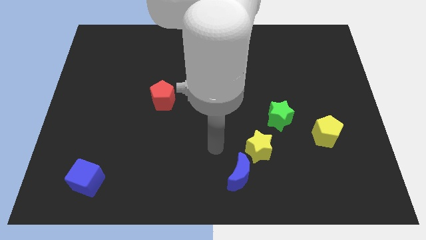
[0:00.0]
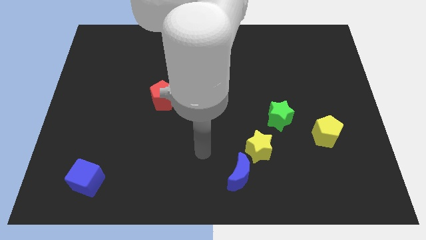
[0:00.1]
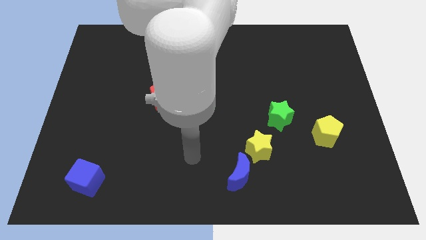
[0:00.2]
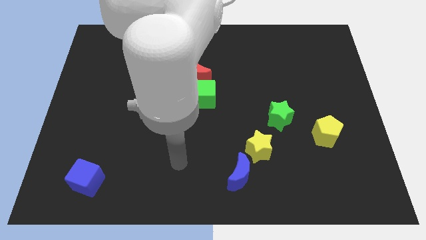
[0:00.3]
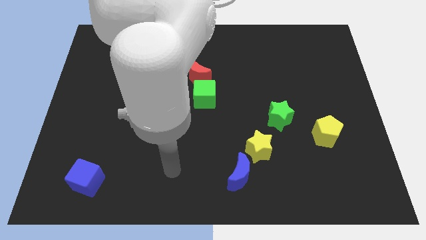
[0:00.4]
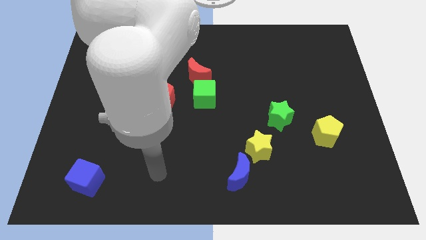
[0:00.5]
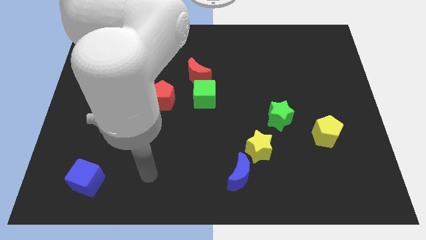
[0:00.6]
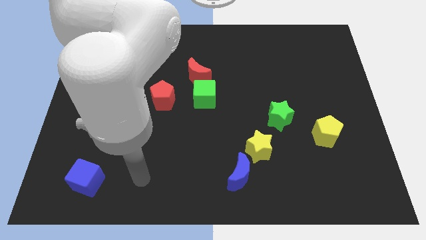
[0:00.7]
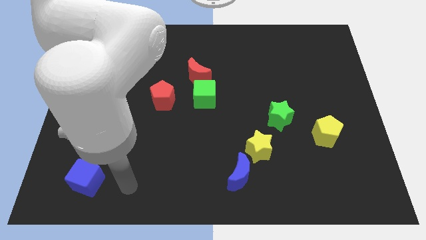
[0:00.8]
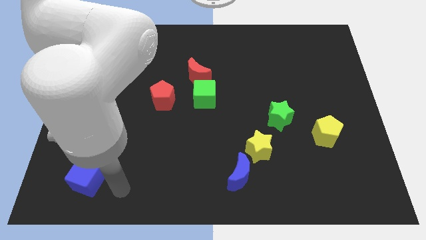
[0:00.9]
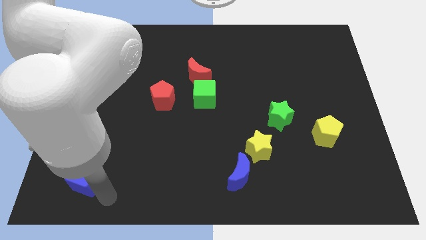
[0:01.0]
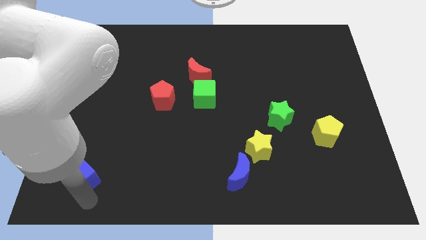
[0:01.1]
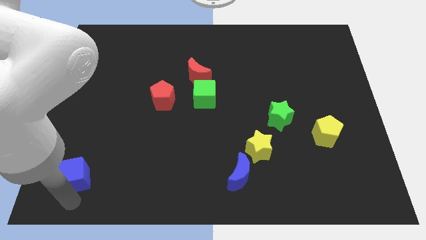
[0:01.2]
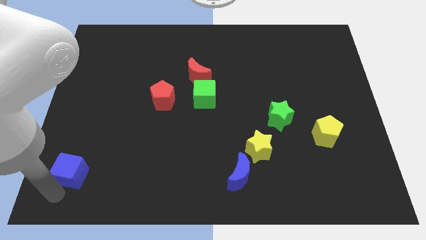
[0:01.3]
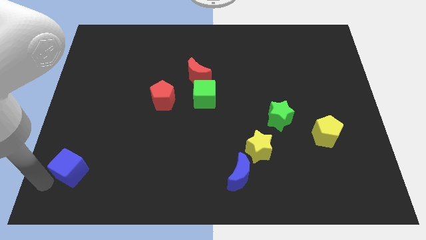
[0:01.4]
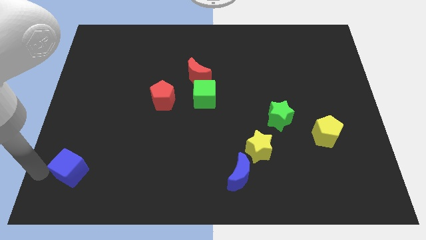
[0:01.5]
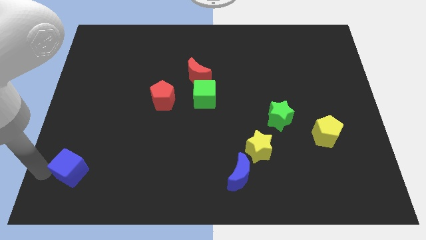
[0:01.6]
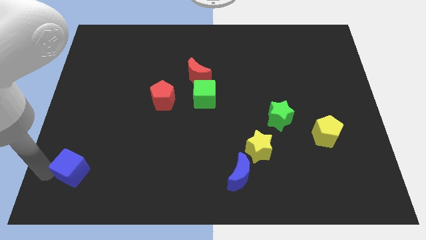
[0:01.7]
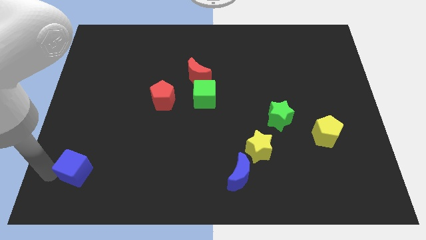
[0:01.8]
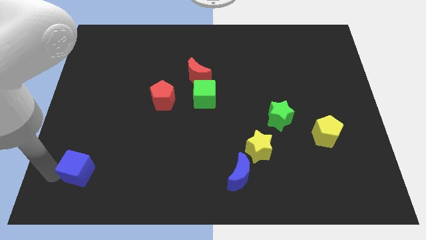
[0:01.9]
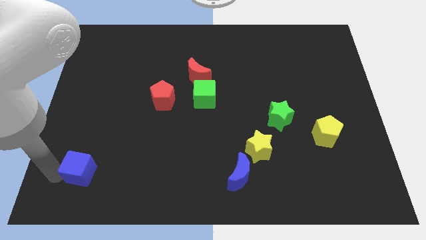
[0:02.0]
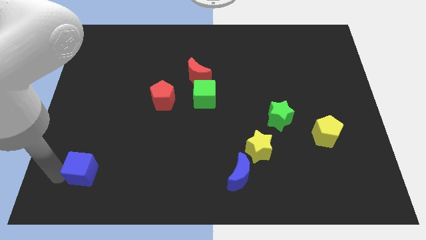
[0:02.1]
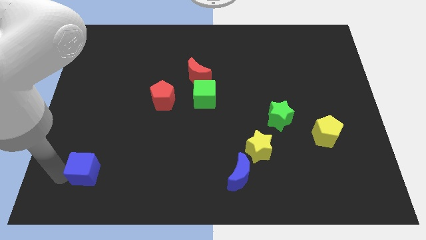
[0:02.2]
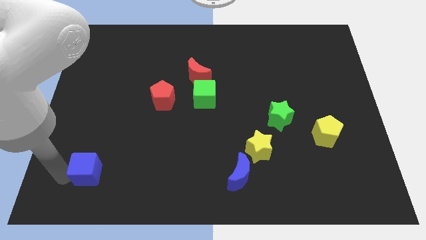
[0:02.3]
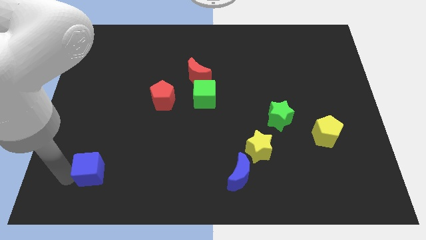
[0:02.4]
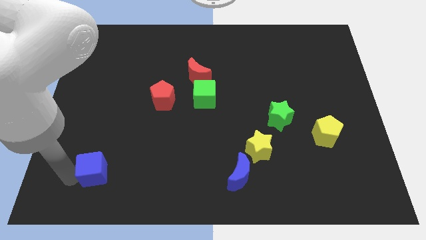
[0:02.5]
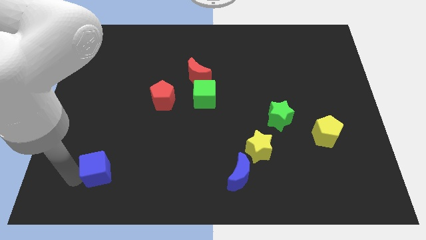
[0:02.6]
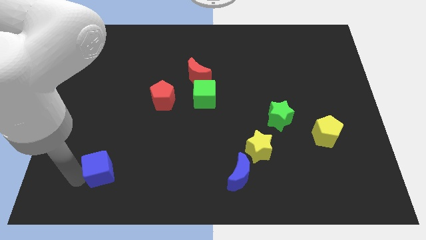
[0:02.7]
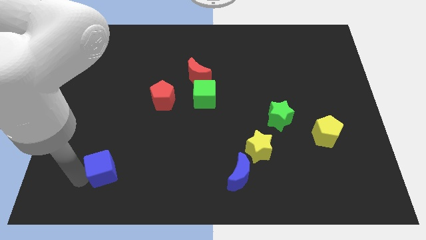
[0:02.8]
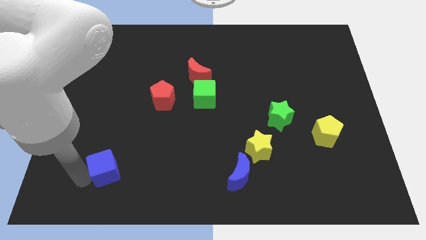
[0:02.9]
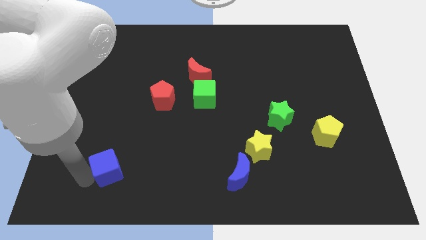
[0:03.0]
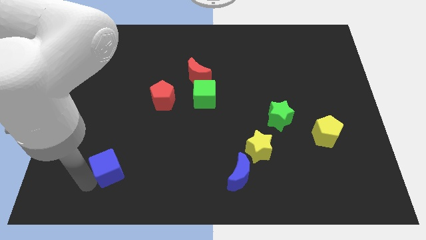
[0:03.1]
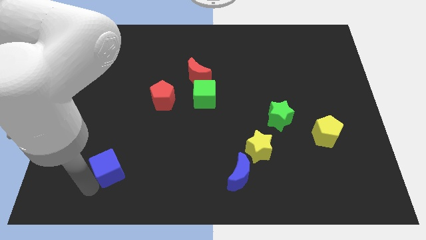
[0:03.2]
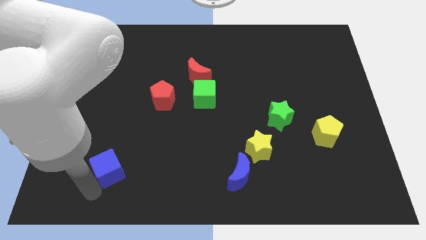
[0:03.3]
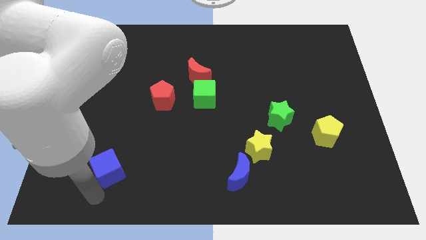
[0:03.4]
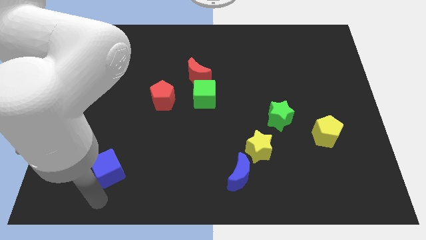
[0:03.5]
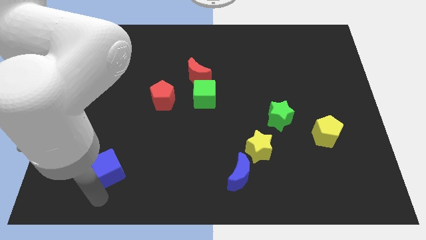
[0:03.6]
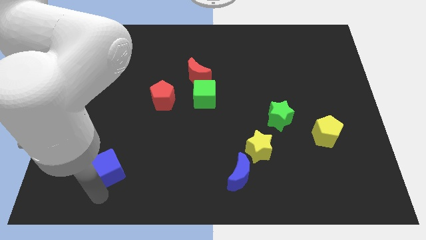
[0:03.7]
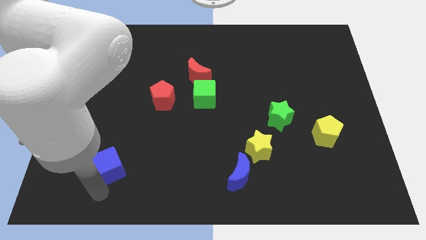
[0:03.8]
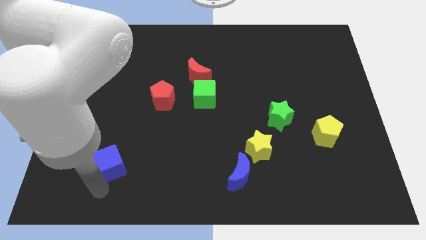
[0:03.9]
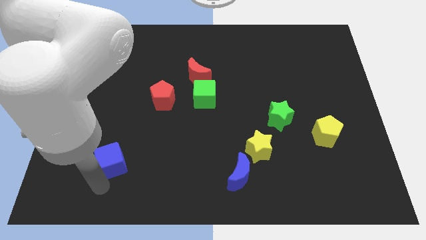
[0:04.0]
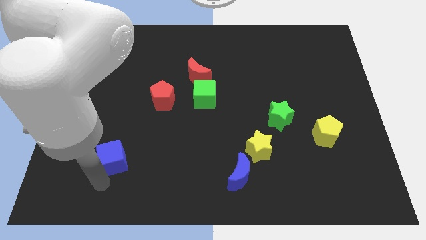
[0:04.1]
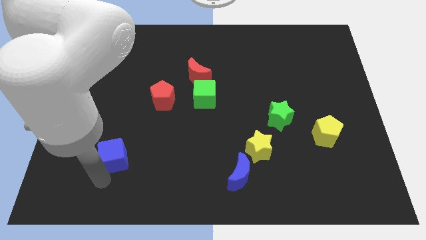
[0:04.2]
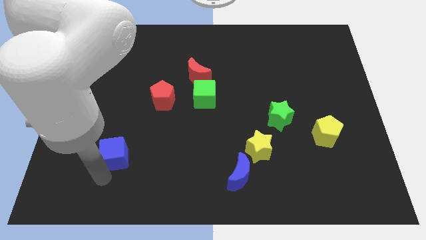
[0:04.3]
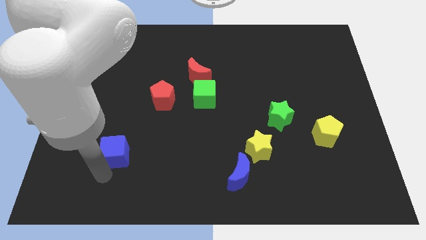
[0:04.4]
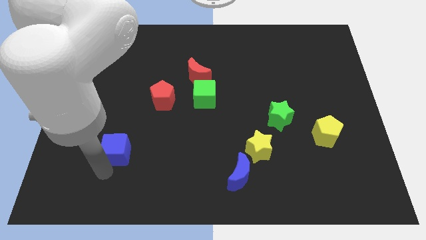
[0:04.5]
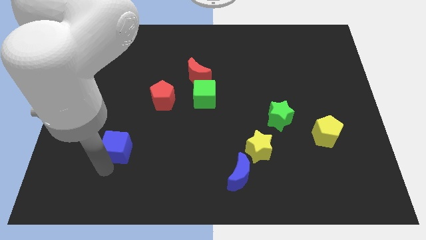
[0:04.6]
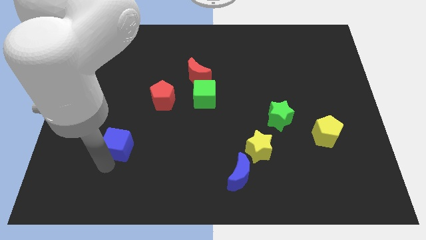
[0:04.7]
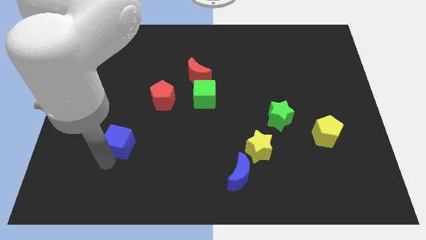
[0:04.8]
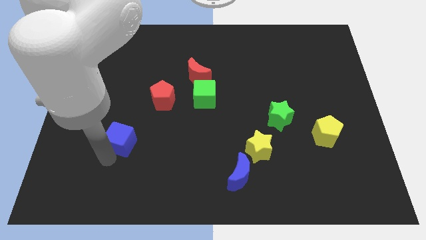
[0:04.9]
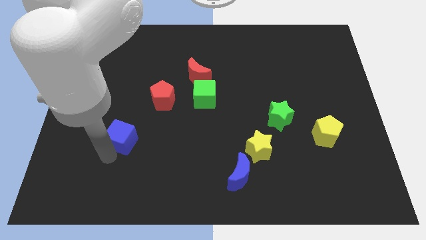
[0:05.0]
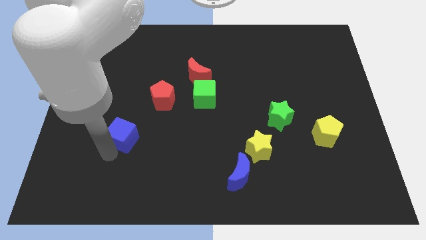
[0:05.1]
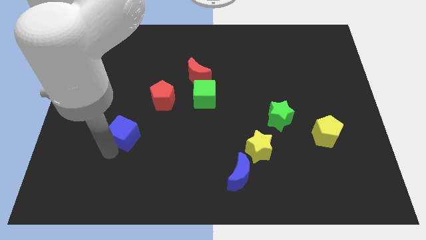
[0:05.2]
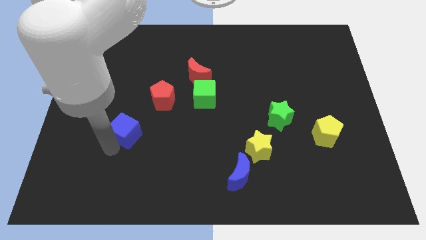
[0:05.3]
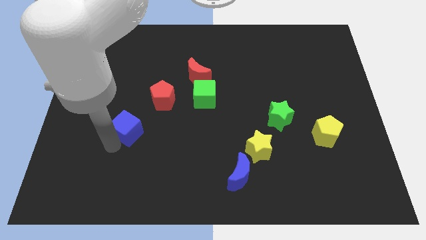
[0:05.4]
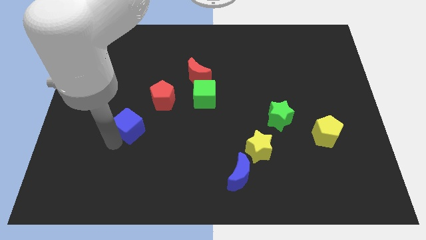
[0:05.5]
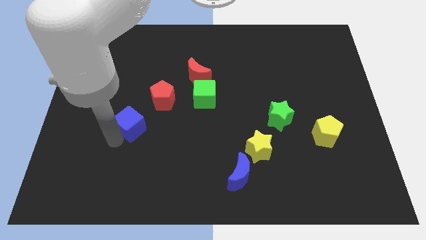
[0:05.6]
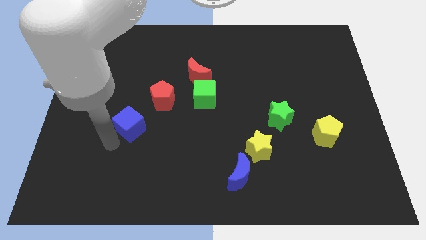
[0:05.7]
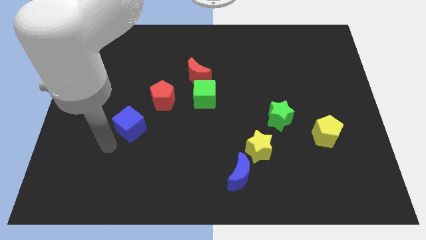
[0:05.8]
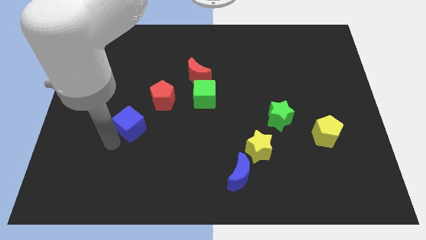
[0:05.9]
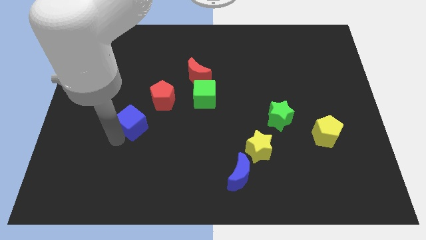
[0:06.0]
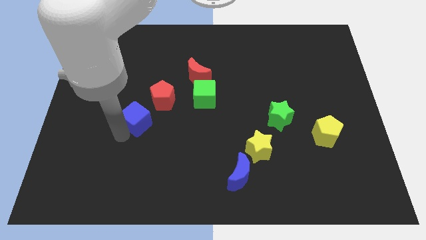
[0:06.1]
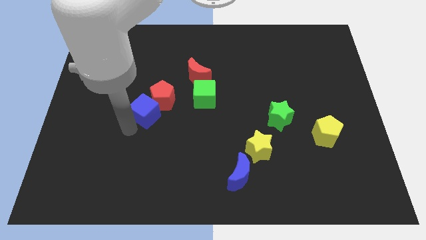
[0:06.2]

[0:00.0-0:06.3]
move the blue cube next to the red pentagon
